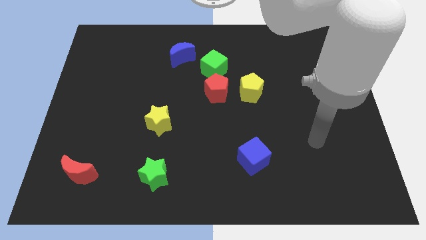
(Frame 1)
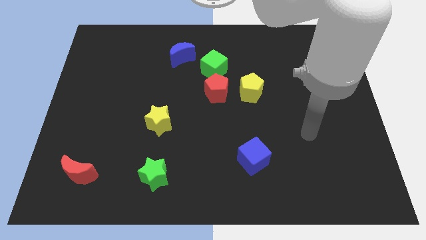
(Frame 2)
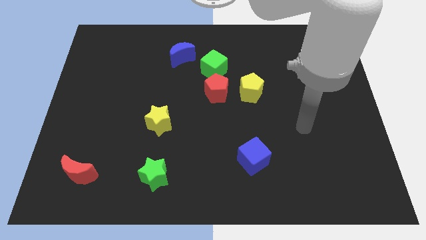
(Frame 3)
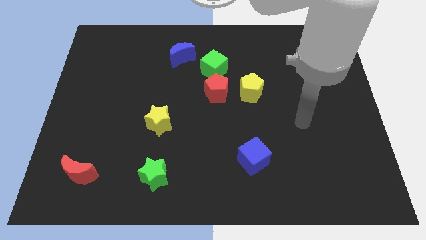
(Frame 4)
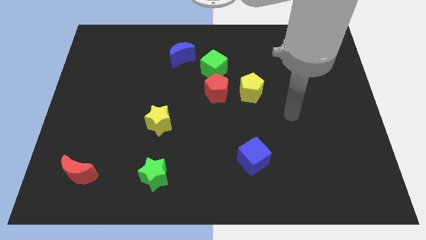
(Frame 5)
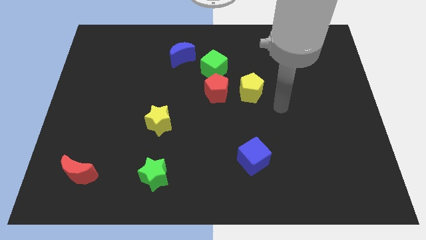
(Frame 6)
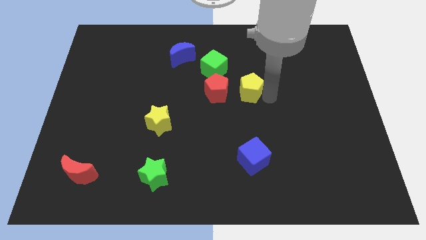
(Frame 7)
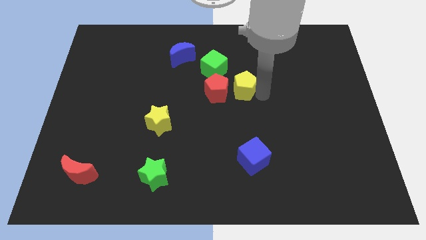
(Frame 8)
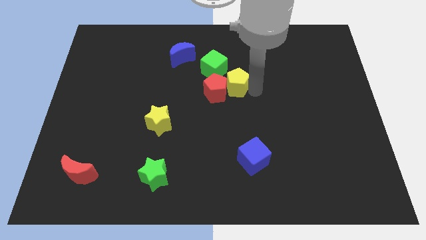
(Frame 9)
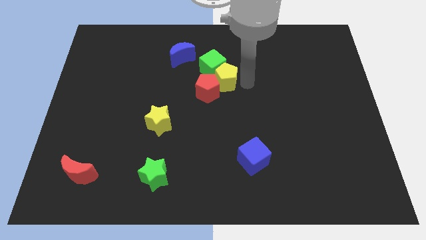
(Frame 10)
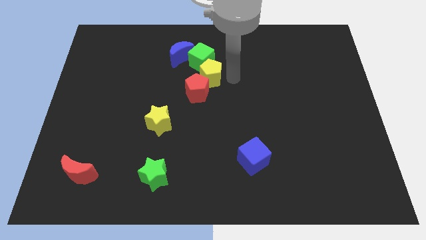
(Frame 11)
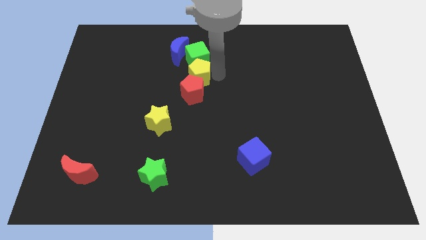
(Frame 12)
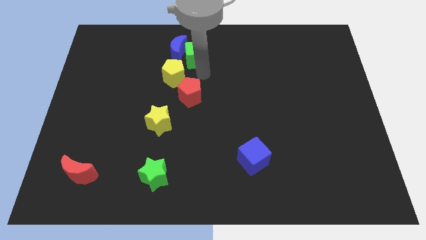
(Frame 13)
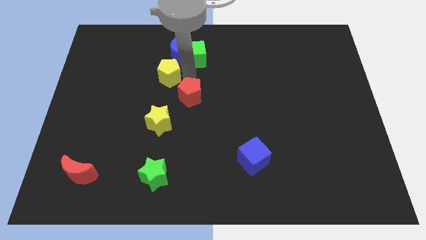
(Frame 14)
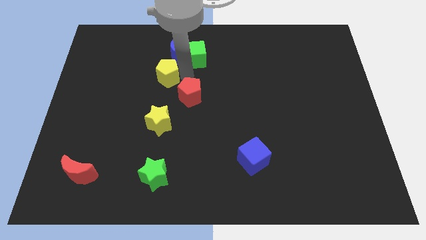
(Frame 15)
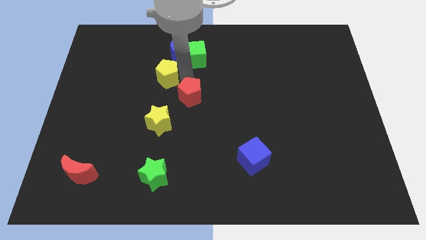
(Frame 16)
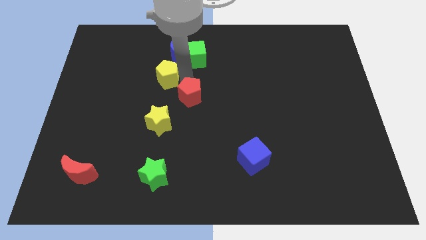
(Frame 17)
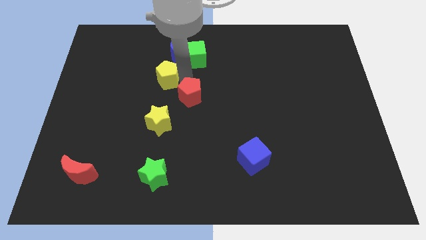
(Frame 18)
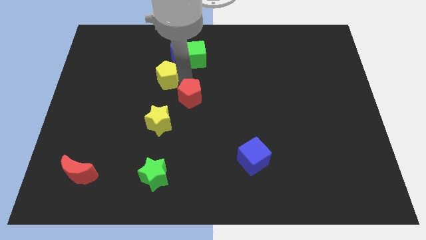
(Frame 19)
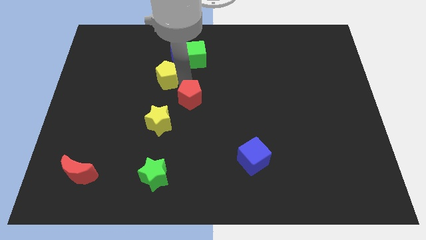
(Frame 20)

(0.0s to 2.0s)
pull the red pentagon apart from the green cube and yellow pentagon

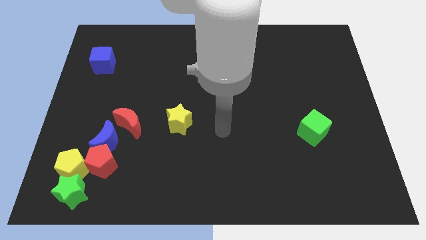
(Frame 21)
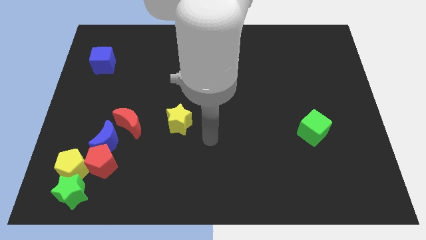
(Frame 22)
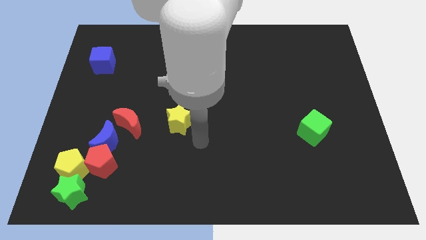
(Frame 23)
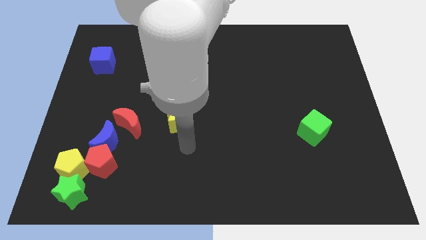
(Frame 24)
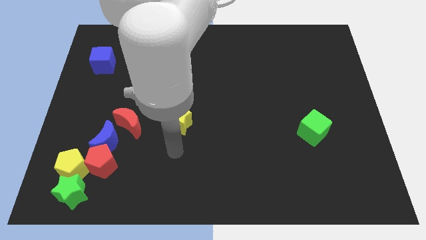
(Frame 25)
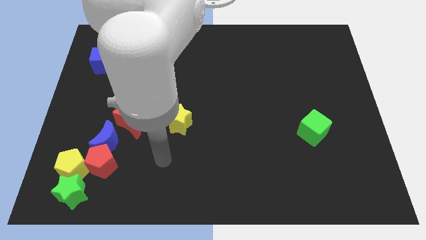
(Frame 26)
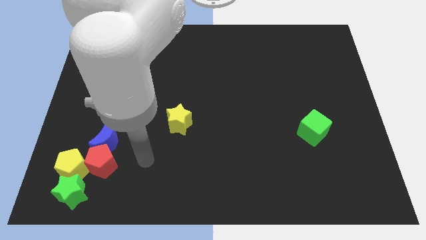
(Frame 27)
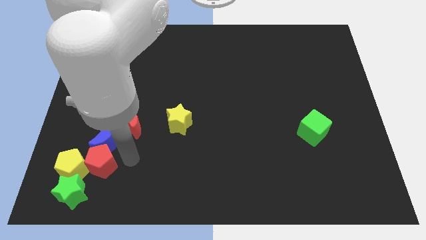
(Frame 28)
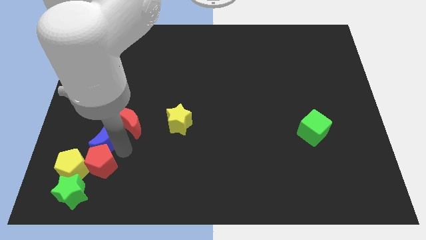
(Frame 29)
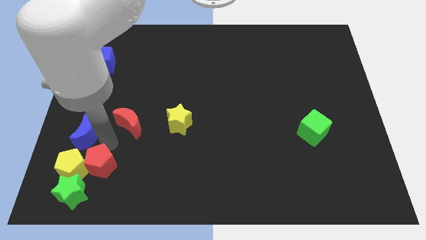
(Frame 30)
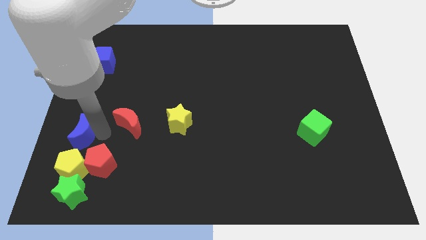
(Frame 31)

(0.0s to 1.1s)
move the red moon away from the blue moon

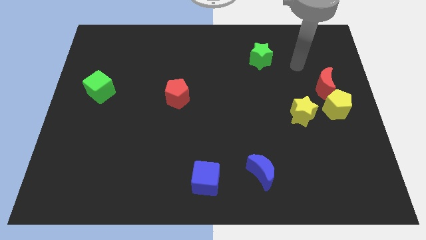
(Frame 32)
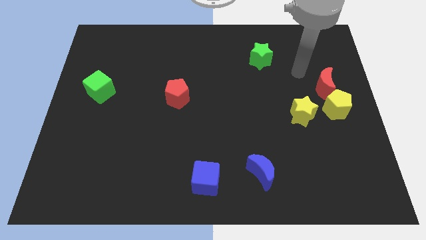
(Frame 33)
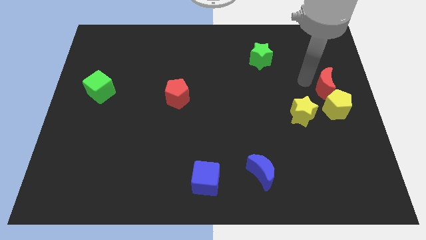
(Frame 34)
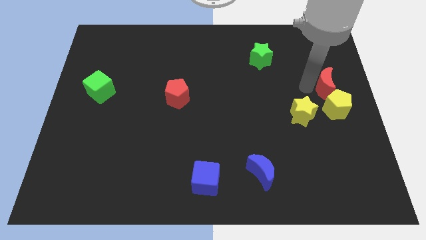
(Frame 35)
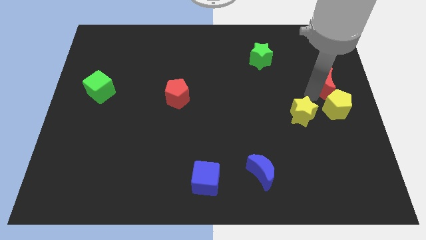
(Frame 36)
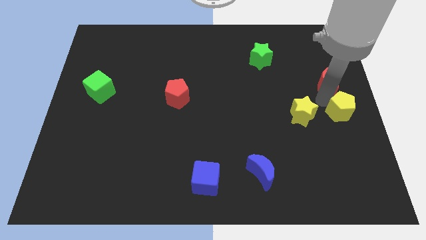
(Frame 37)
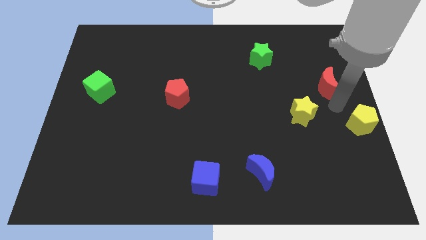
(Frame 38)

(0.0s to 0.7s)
pull the red moon apart from the yellow pentagon

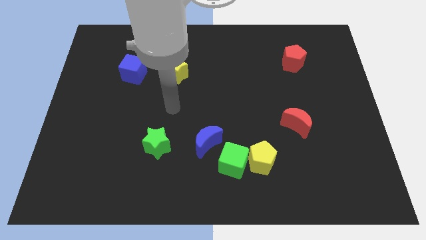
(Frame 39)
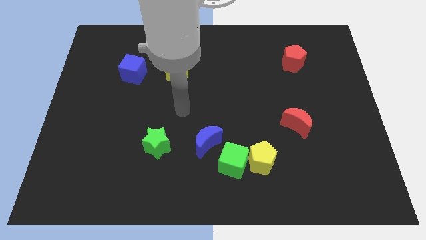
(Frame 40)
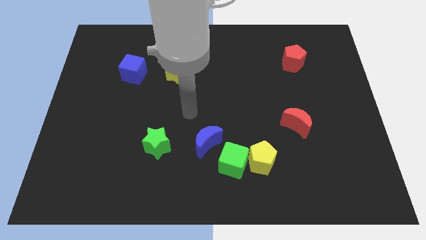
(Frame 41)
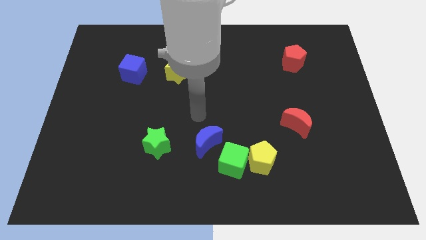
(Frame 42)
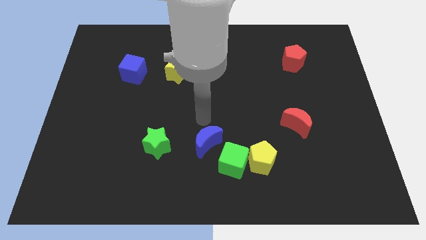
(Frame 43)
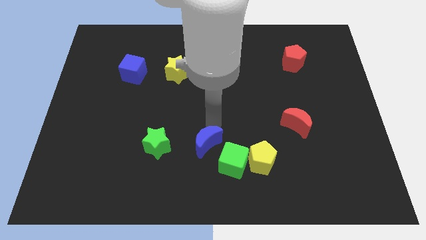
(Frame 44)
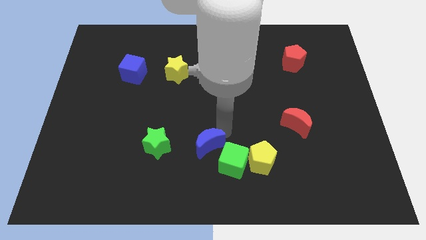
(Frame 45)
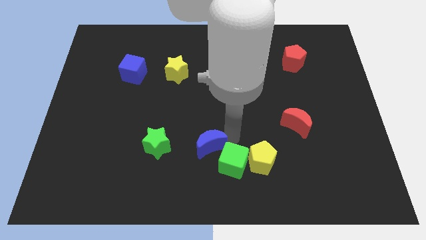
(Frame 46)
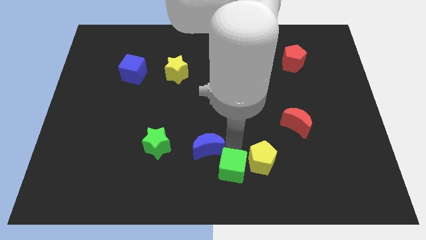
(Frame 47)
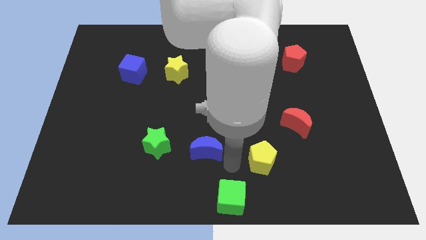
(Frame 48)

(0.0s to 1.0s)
pull the yellow pentagon apart from the green cube

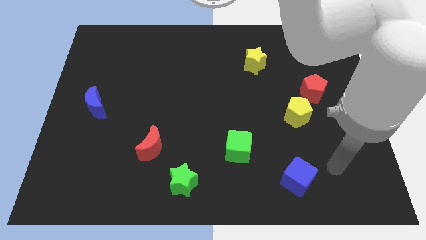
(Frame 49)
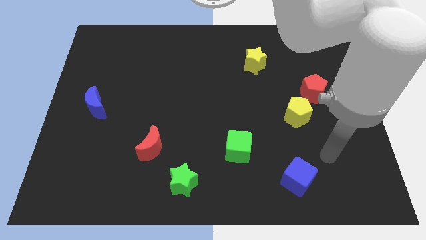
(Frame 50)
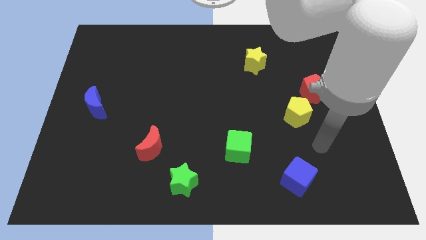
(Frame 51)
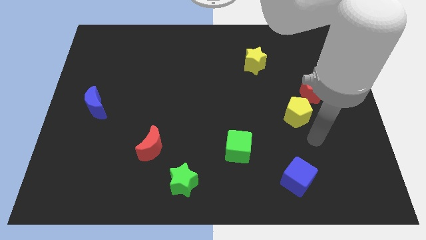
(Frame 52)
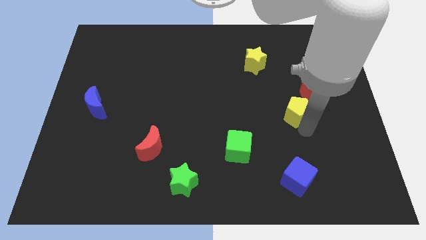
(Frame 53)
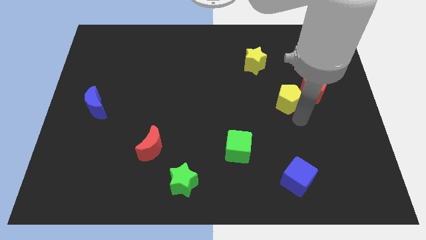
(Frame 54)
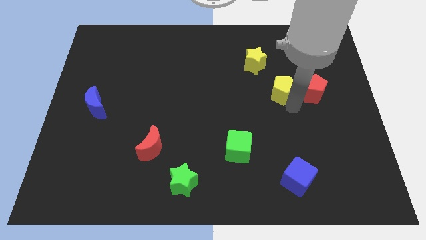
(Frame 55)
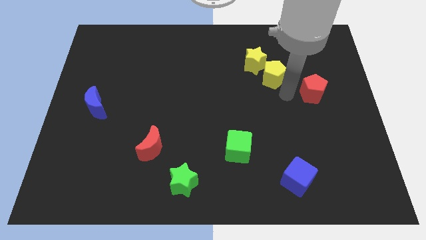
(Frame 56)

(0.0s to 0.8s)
move the red pentagon away from the yellow pentagon

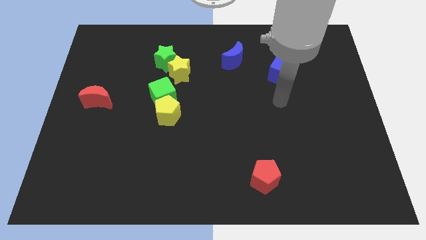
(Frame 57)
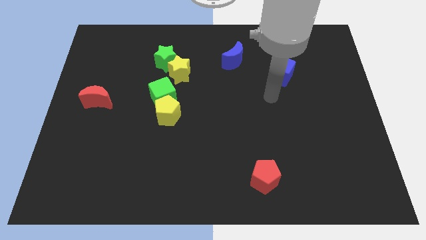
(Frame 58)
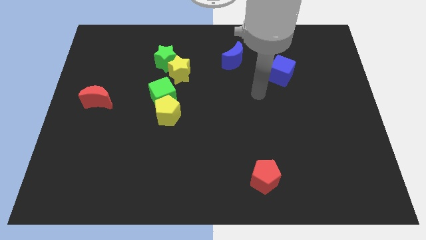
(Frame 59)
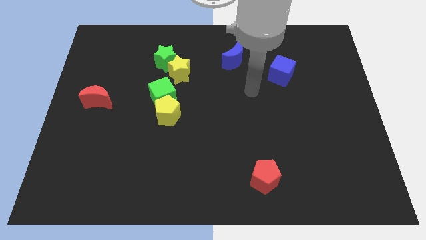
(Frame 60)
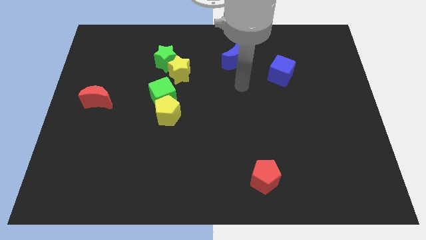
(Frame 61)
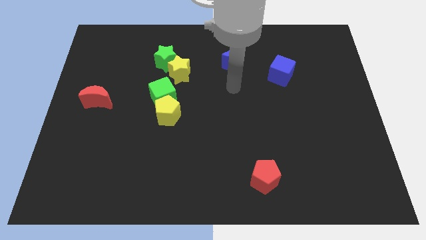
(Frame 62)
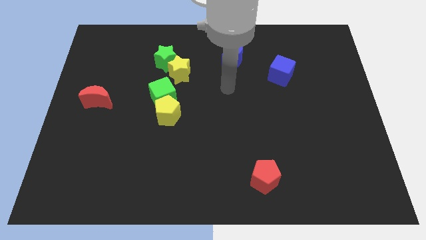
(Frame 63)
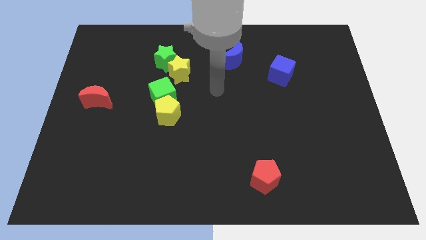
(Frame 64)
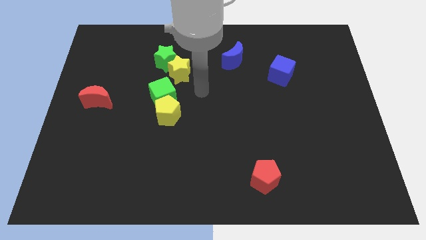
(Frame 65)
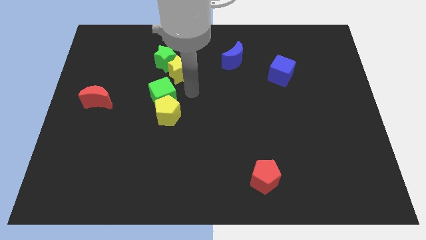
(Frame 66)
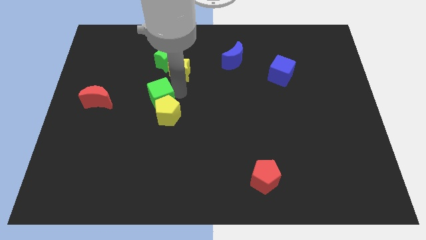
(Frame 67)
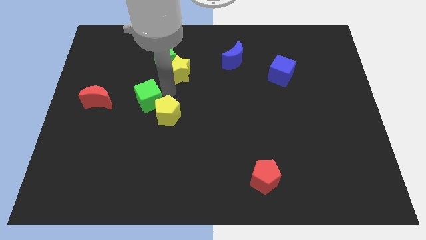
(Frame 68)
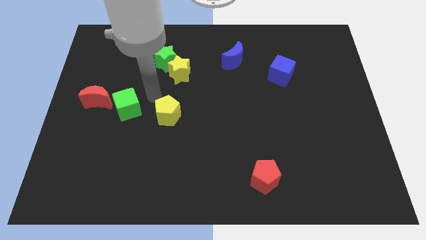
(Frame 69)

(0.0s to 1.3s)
move the yellow pentagon away from the green cube

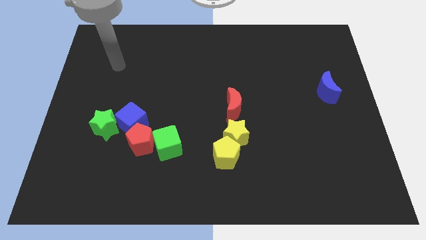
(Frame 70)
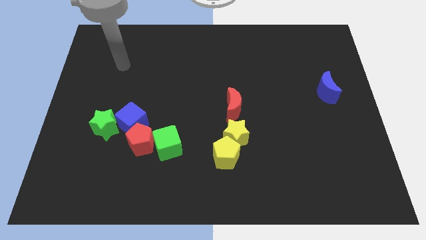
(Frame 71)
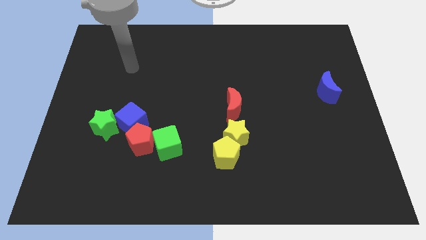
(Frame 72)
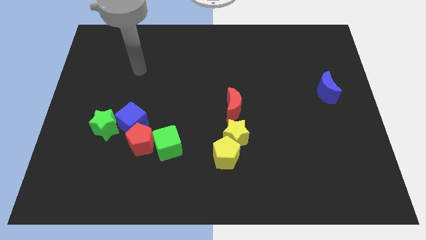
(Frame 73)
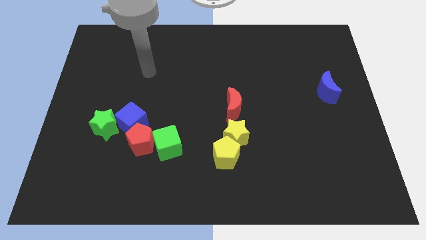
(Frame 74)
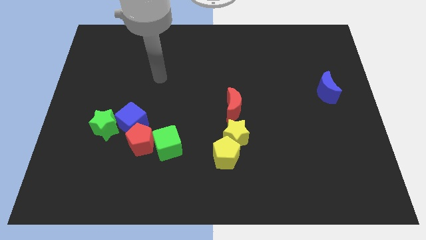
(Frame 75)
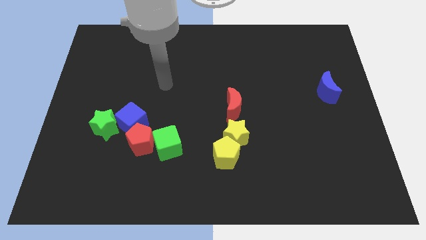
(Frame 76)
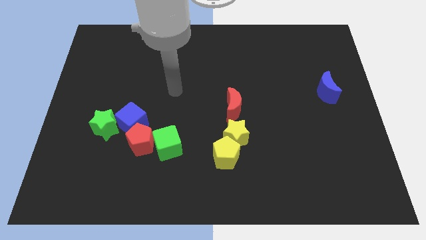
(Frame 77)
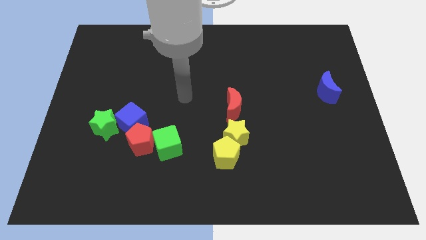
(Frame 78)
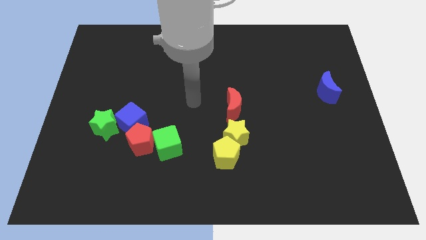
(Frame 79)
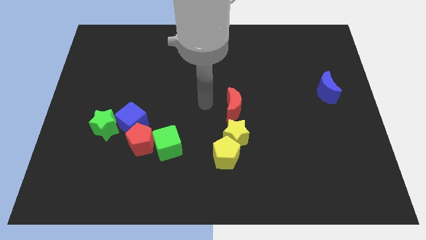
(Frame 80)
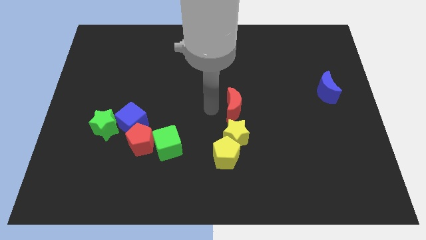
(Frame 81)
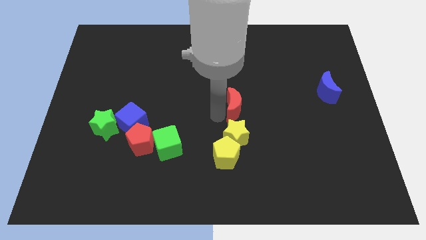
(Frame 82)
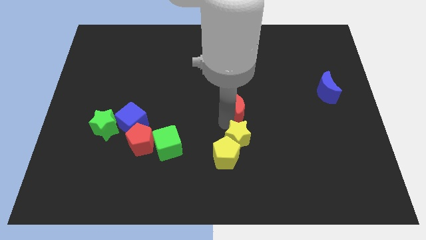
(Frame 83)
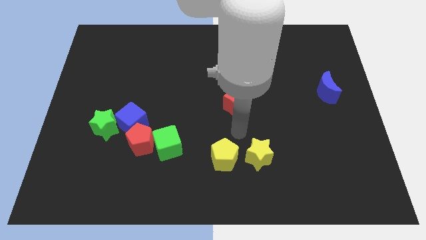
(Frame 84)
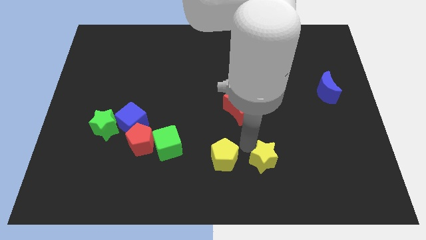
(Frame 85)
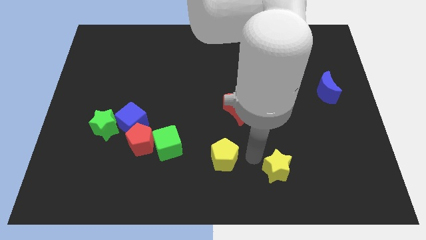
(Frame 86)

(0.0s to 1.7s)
pull the yellow pentagon apart from the yellow star

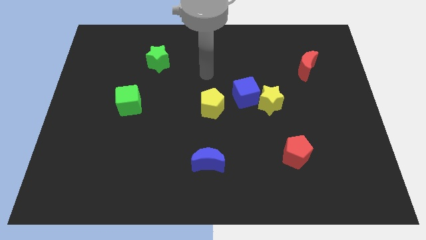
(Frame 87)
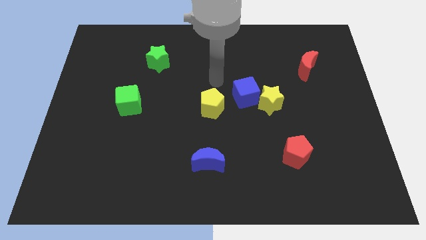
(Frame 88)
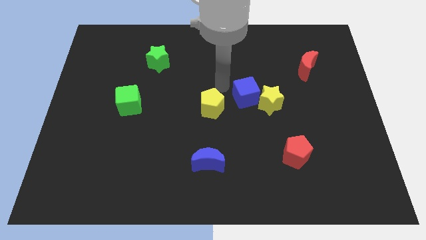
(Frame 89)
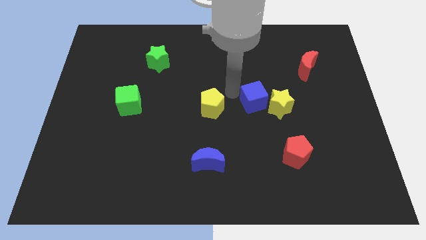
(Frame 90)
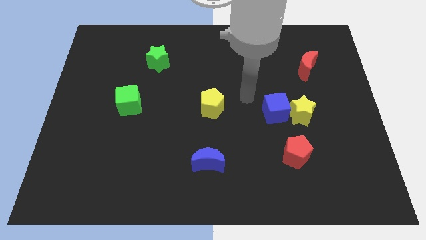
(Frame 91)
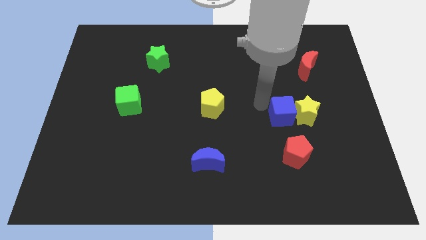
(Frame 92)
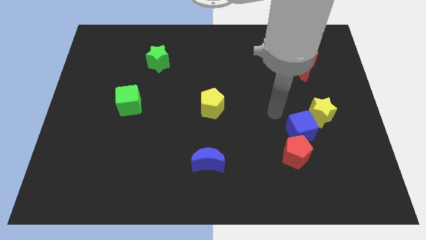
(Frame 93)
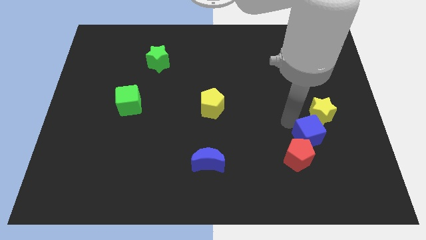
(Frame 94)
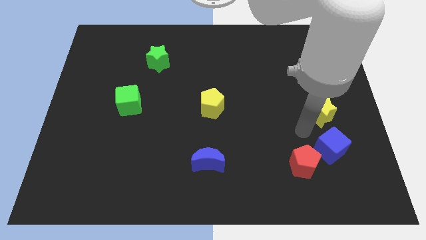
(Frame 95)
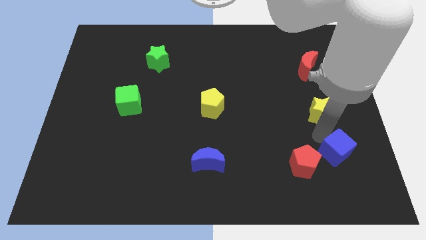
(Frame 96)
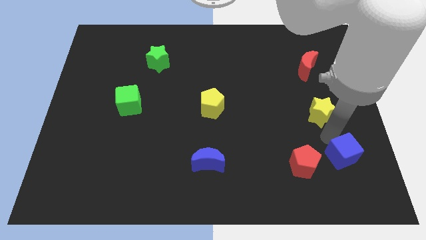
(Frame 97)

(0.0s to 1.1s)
separate the yellow star from the blue cube
